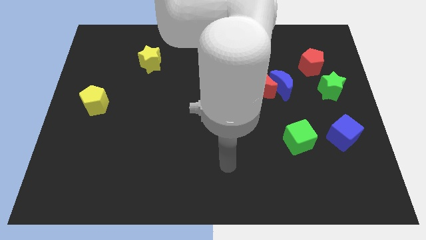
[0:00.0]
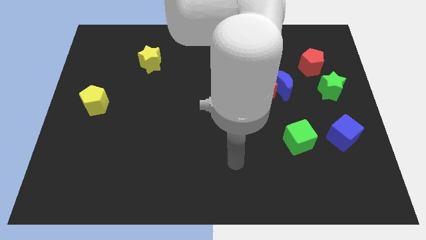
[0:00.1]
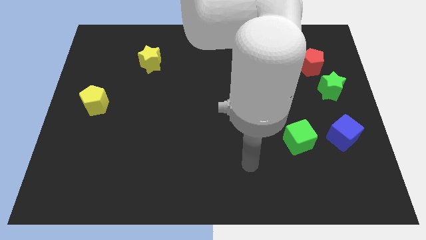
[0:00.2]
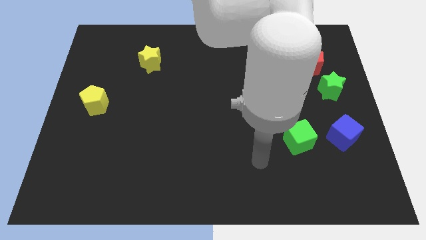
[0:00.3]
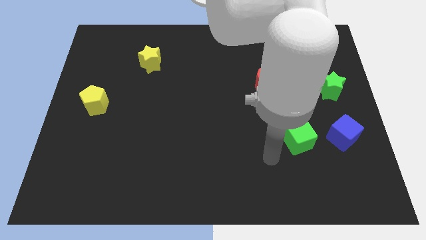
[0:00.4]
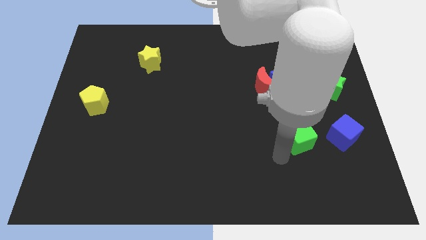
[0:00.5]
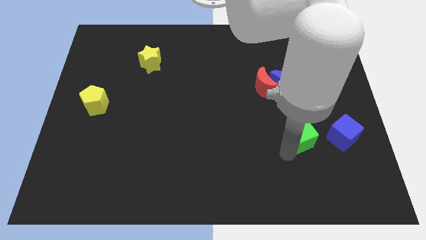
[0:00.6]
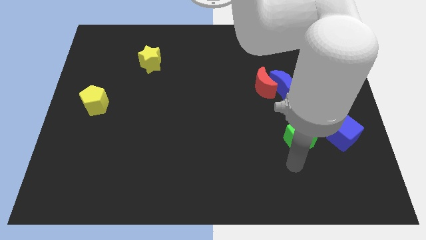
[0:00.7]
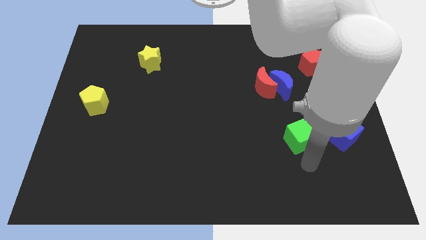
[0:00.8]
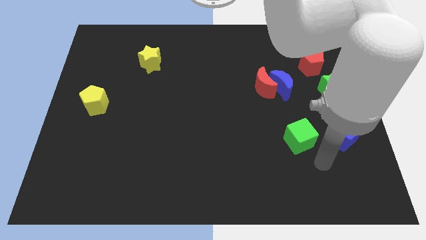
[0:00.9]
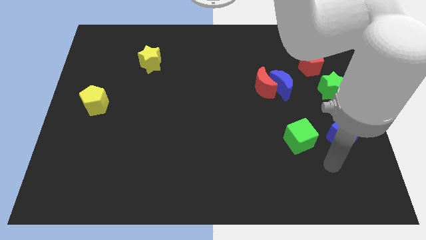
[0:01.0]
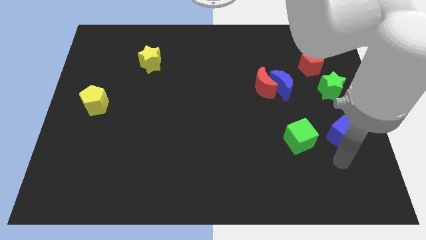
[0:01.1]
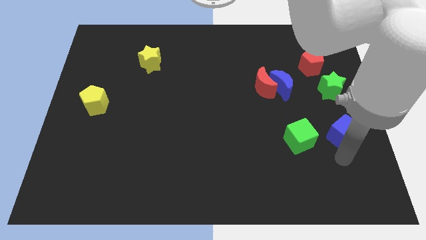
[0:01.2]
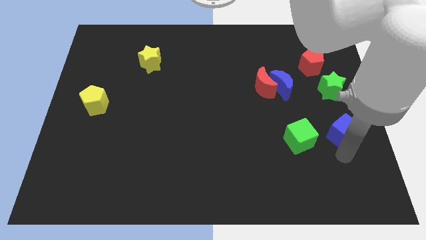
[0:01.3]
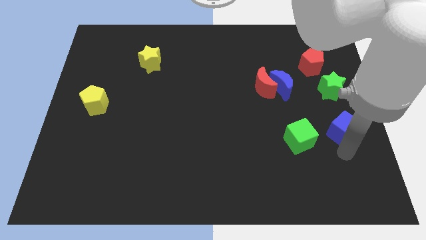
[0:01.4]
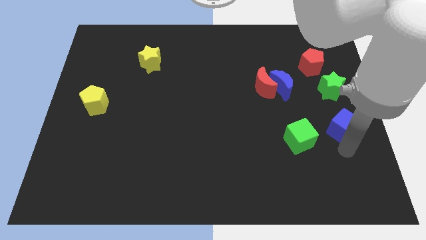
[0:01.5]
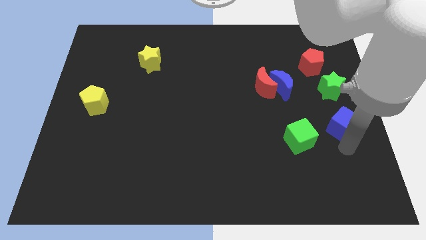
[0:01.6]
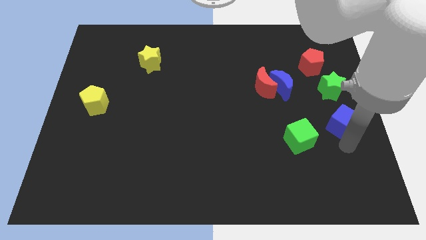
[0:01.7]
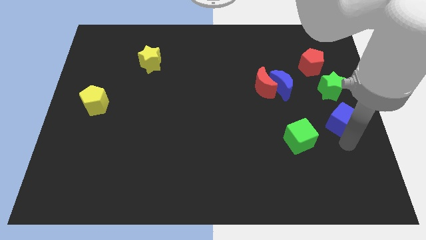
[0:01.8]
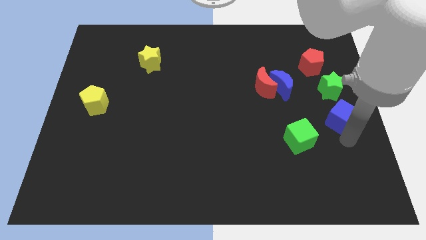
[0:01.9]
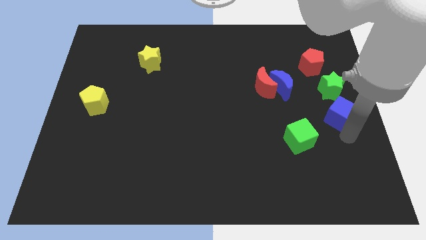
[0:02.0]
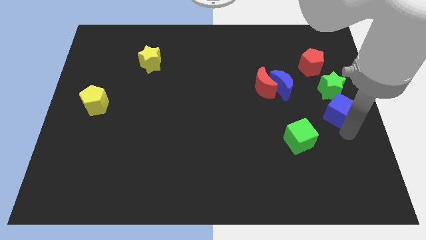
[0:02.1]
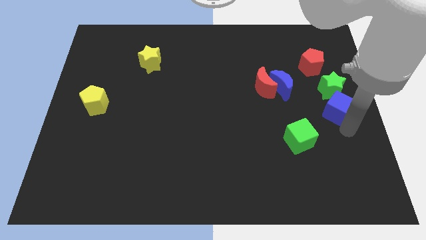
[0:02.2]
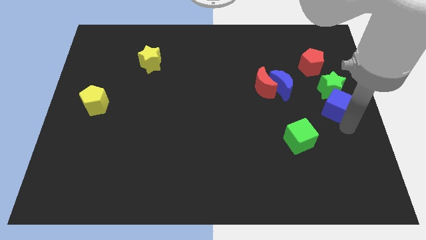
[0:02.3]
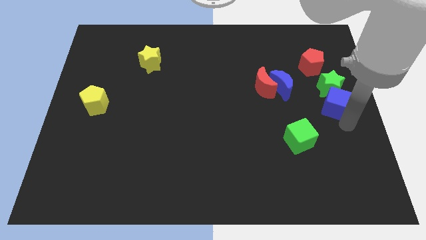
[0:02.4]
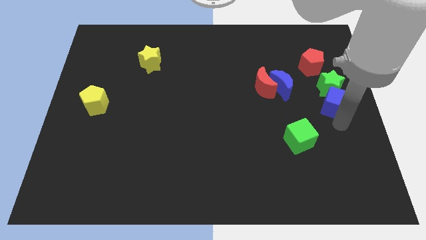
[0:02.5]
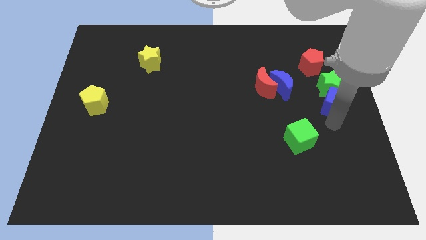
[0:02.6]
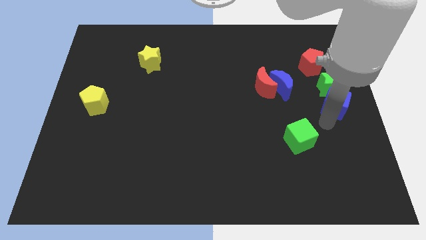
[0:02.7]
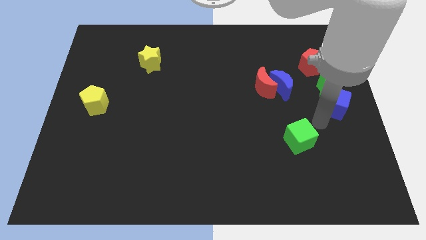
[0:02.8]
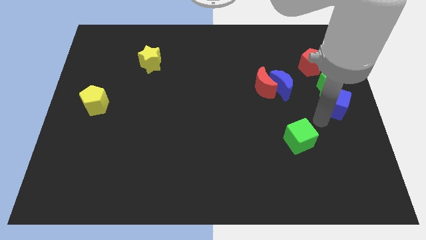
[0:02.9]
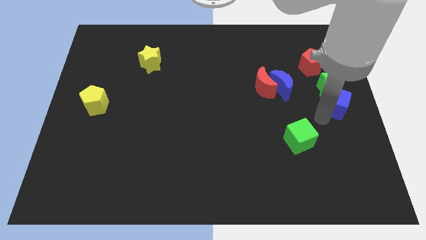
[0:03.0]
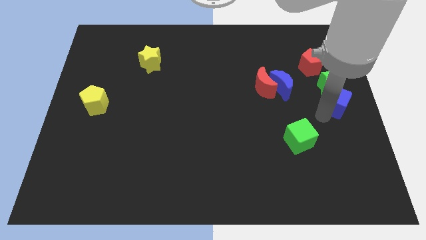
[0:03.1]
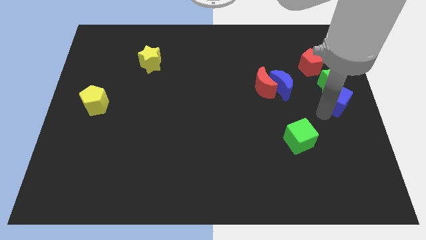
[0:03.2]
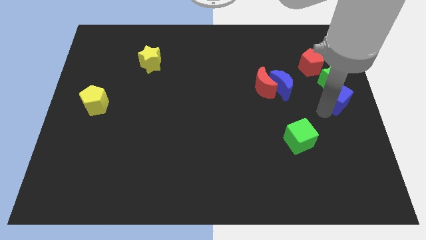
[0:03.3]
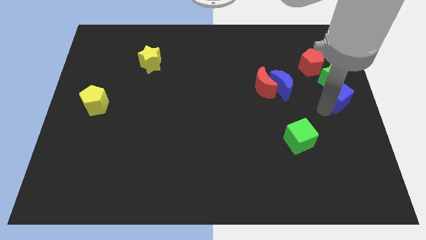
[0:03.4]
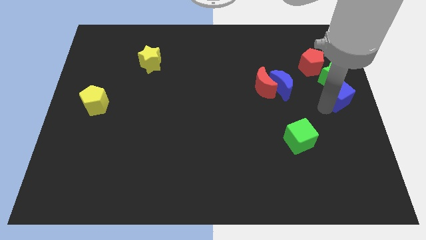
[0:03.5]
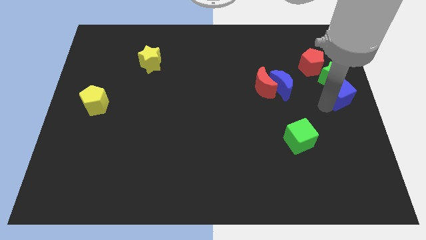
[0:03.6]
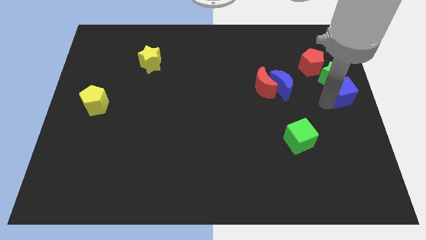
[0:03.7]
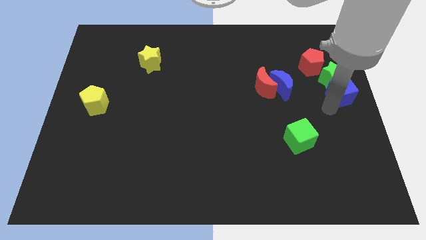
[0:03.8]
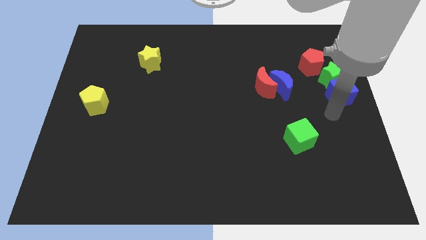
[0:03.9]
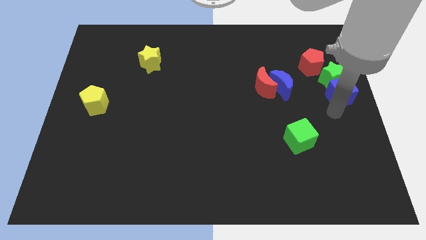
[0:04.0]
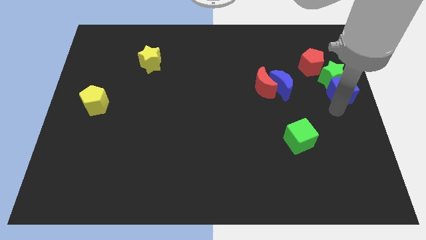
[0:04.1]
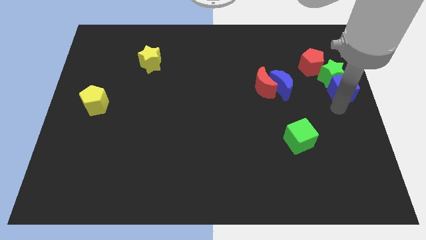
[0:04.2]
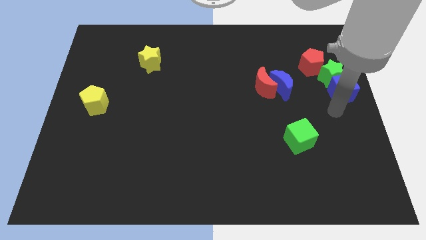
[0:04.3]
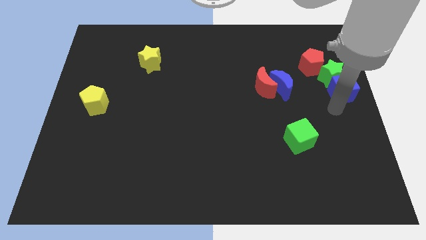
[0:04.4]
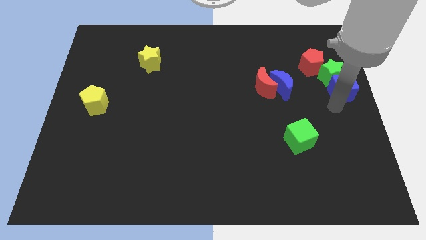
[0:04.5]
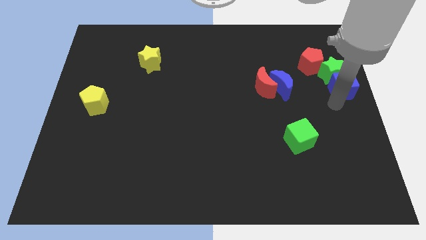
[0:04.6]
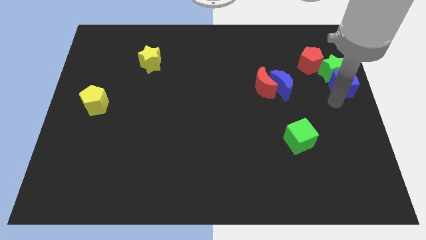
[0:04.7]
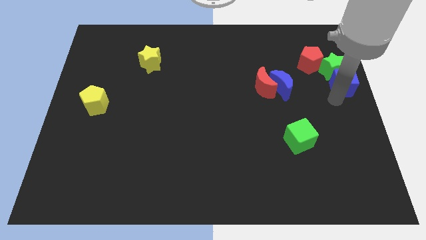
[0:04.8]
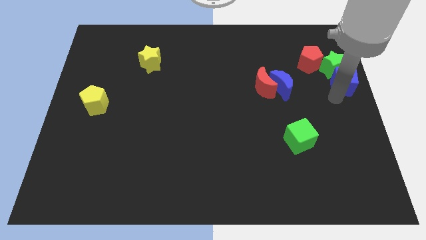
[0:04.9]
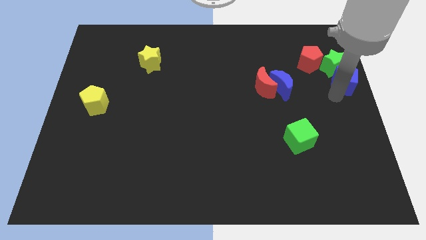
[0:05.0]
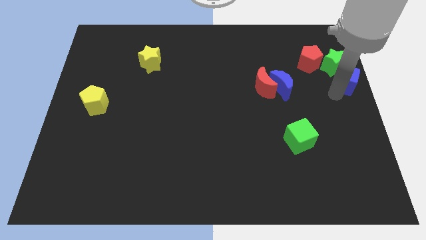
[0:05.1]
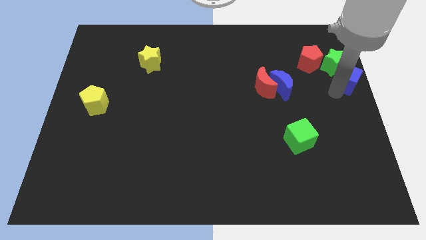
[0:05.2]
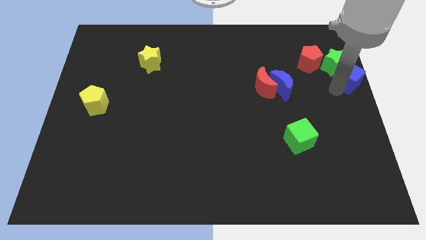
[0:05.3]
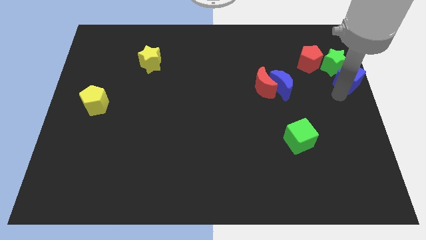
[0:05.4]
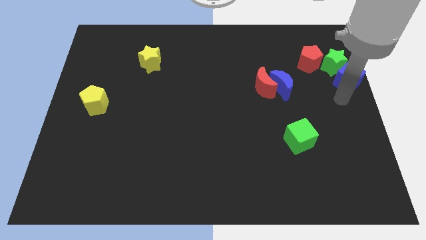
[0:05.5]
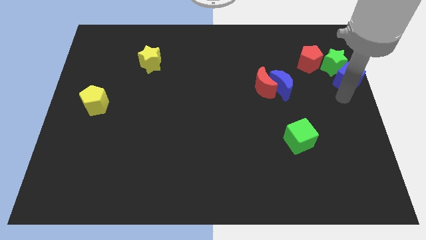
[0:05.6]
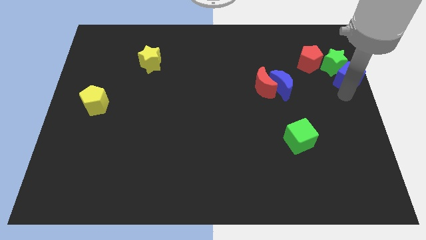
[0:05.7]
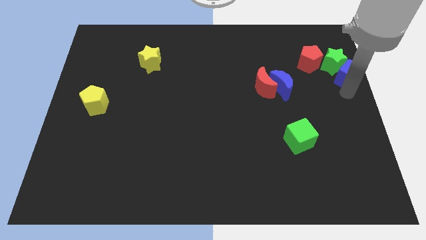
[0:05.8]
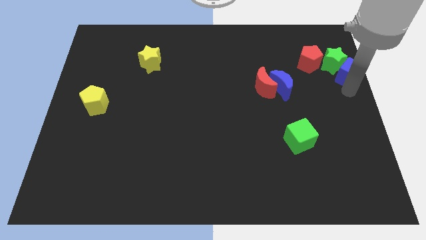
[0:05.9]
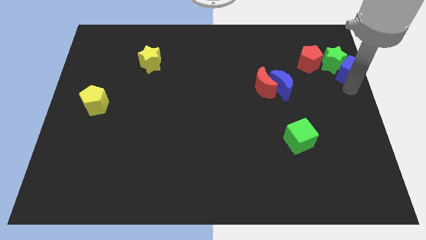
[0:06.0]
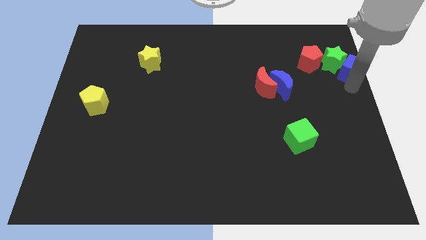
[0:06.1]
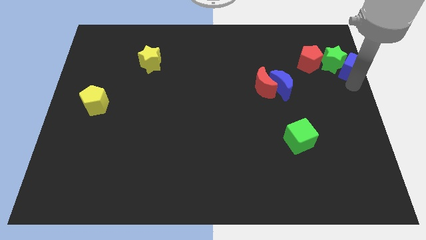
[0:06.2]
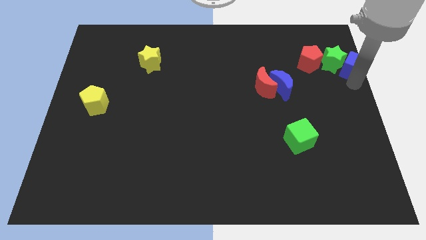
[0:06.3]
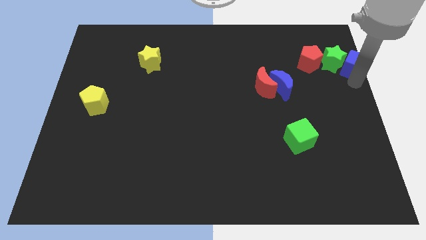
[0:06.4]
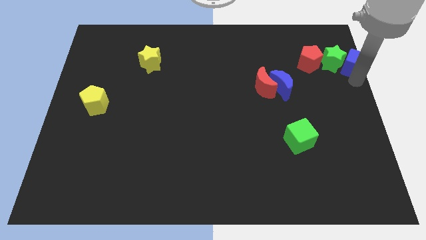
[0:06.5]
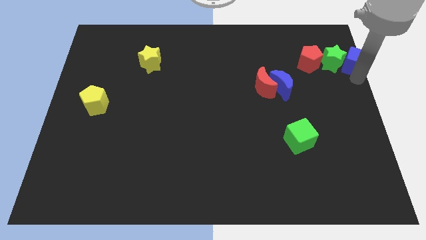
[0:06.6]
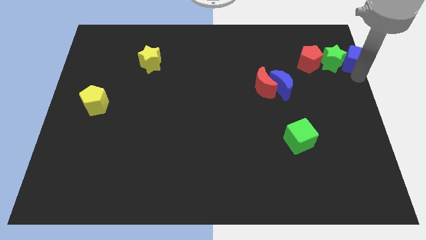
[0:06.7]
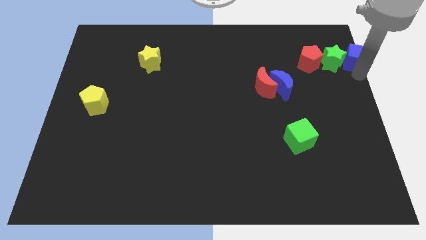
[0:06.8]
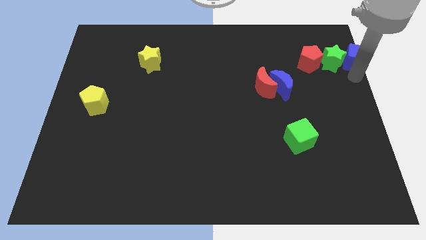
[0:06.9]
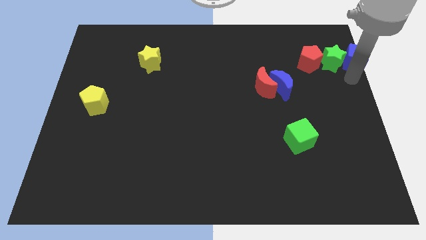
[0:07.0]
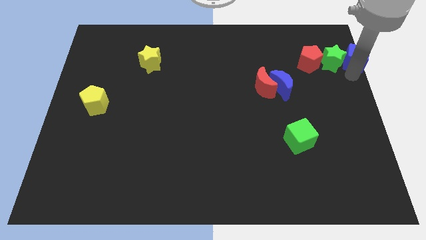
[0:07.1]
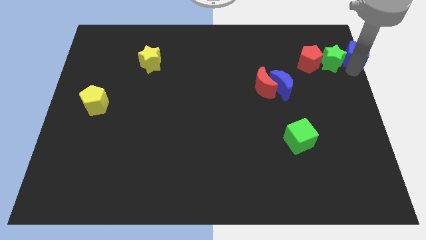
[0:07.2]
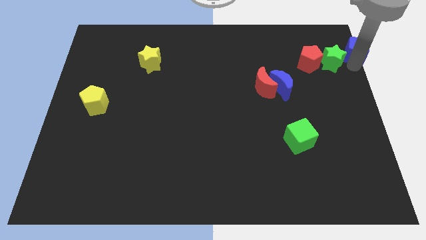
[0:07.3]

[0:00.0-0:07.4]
slide the blue cube to the top right corner
